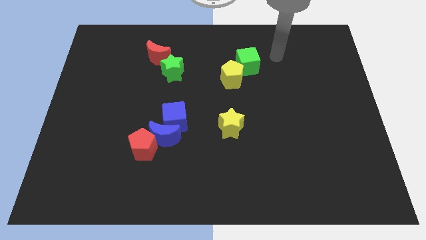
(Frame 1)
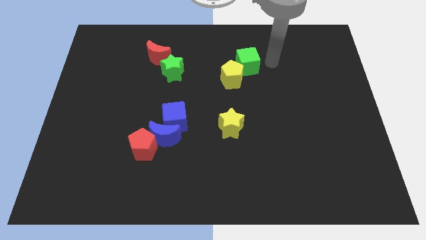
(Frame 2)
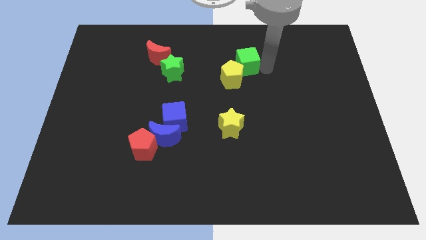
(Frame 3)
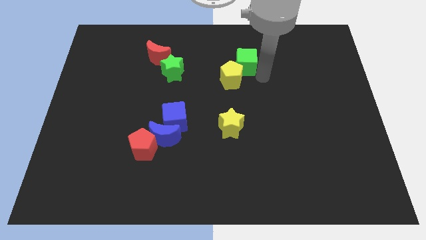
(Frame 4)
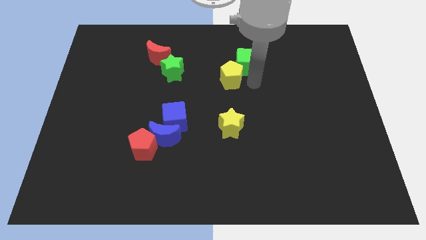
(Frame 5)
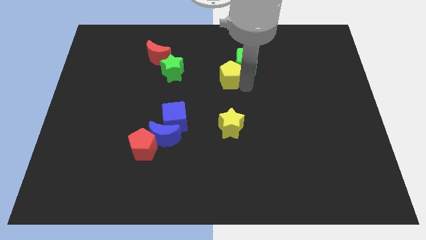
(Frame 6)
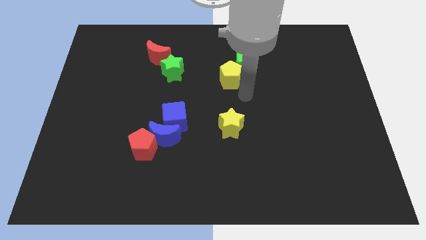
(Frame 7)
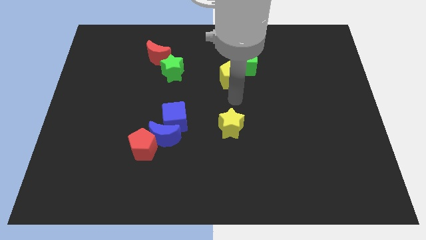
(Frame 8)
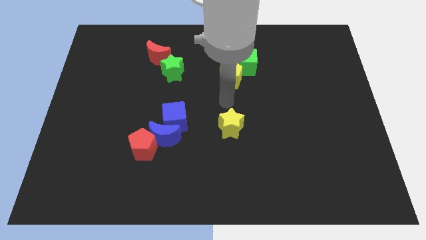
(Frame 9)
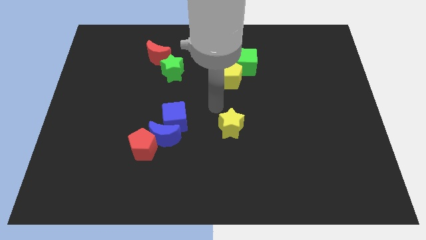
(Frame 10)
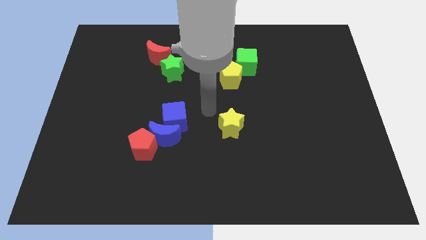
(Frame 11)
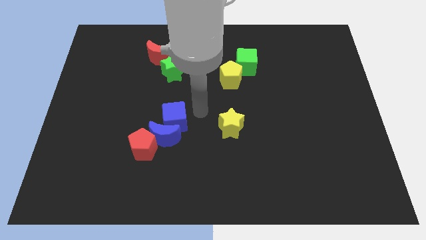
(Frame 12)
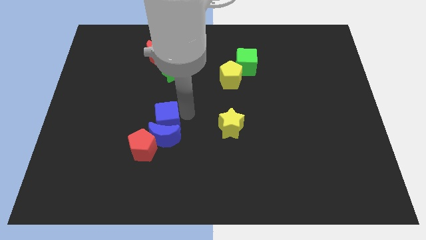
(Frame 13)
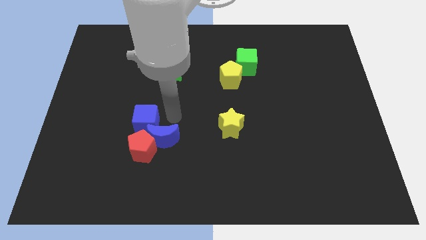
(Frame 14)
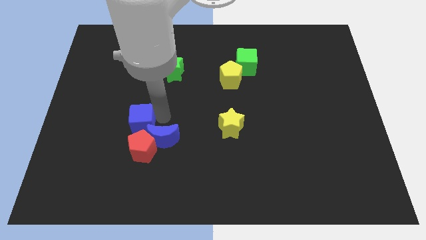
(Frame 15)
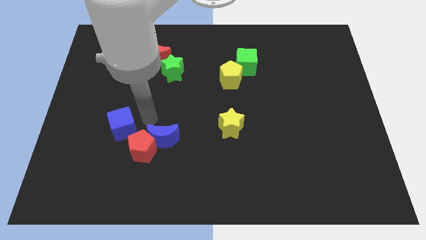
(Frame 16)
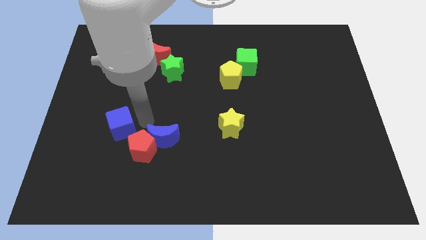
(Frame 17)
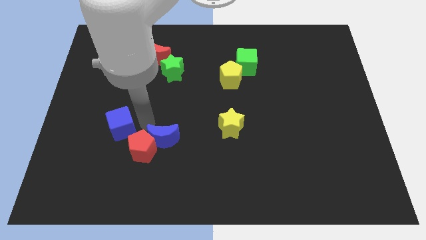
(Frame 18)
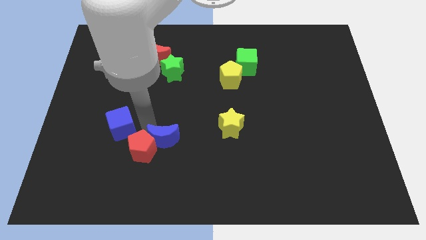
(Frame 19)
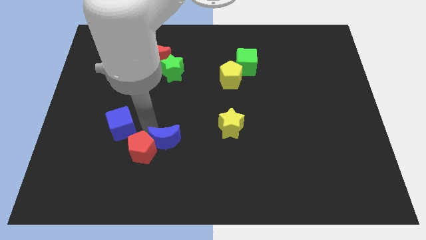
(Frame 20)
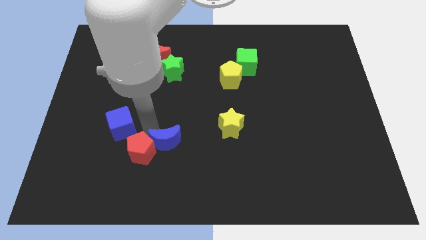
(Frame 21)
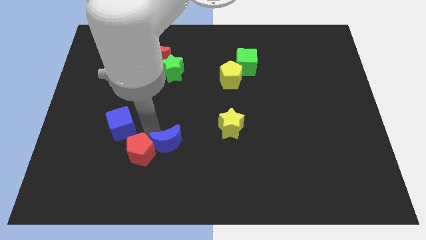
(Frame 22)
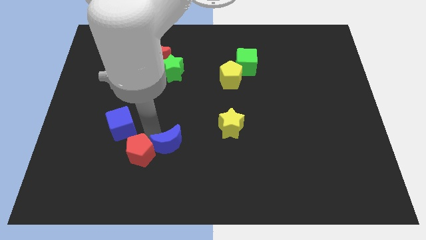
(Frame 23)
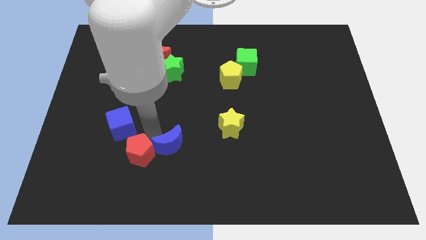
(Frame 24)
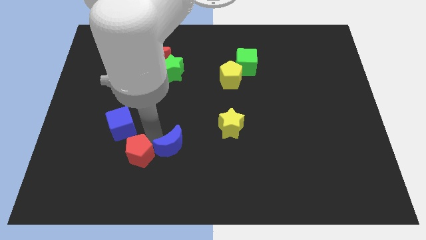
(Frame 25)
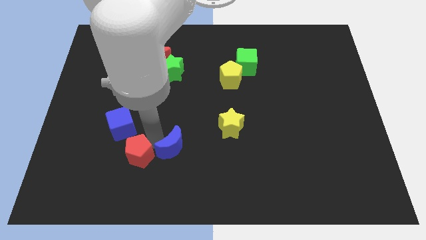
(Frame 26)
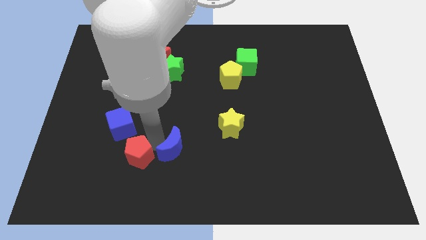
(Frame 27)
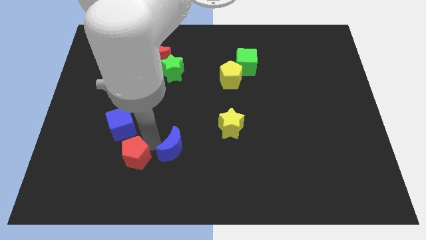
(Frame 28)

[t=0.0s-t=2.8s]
pull the blue moon apart from the red pentagon and blue cube

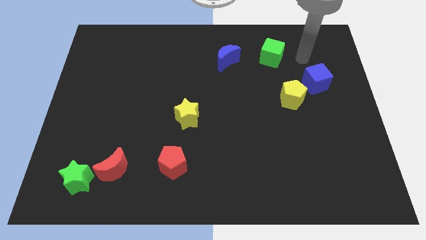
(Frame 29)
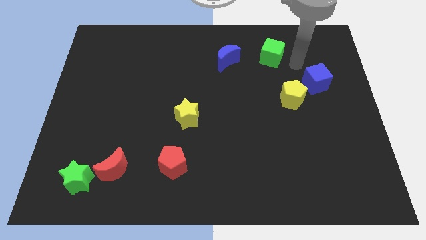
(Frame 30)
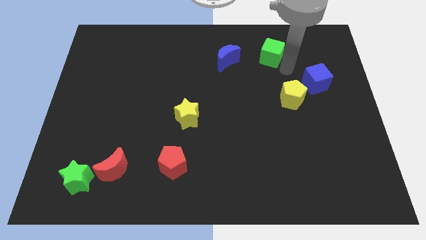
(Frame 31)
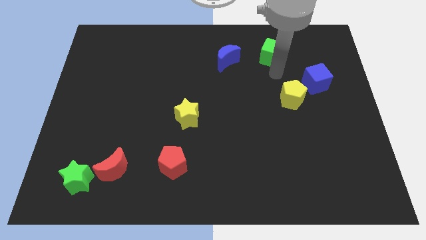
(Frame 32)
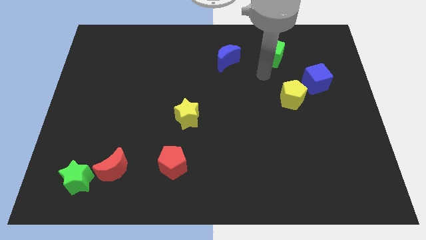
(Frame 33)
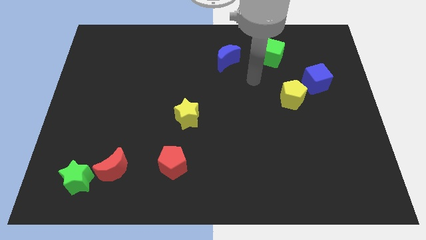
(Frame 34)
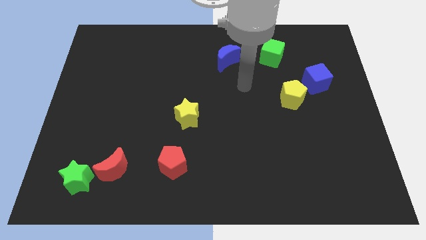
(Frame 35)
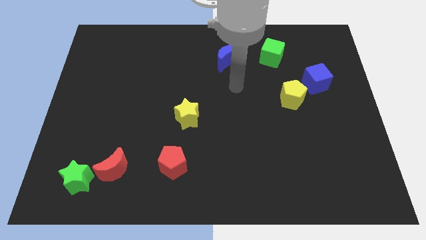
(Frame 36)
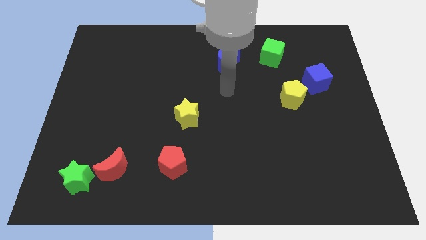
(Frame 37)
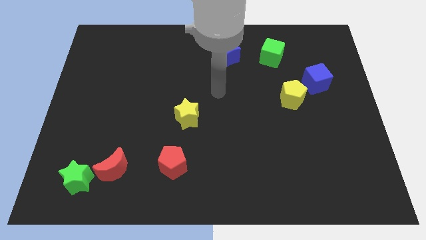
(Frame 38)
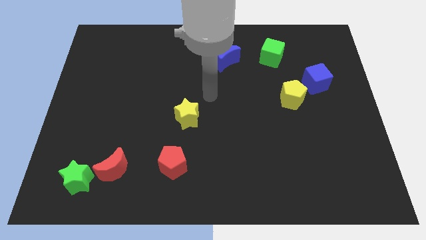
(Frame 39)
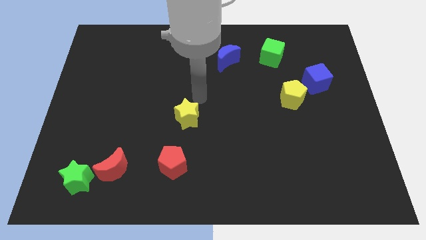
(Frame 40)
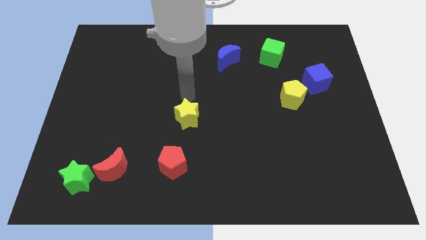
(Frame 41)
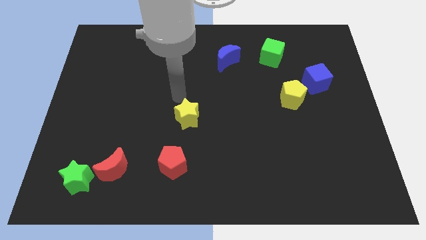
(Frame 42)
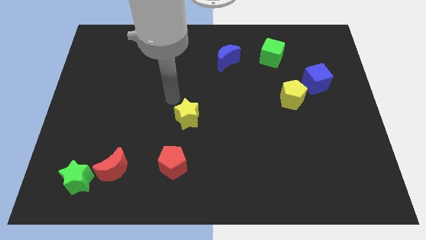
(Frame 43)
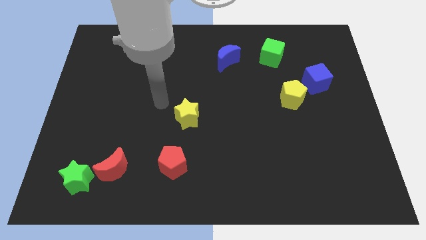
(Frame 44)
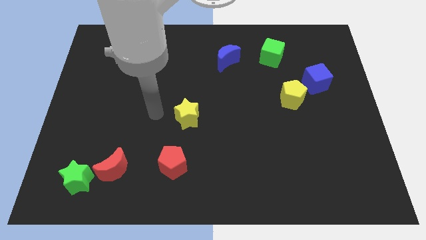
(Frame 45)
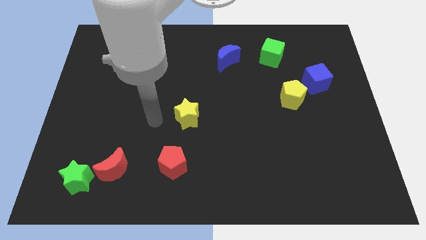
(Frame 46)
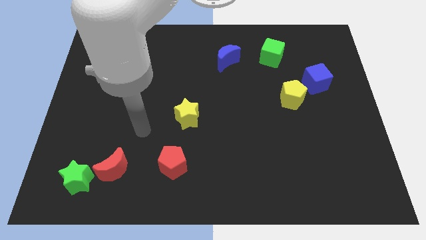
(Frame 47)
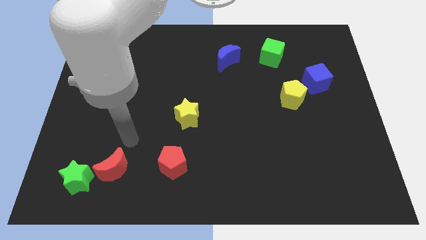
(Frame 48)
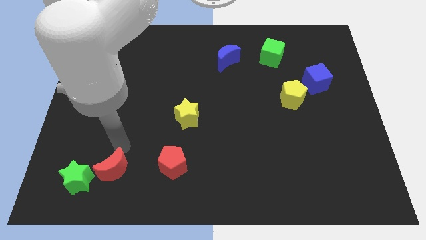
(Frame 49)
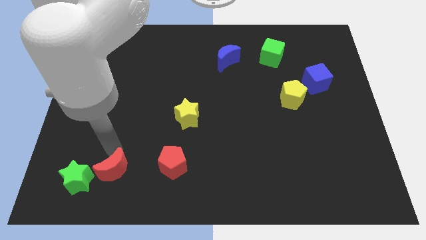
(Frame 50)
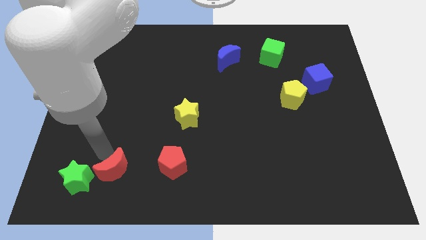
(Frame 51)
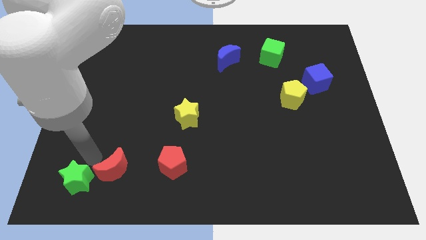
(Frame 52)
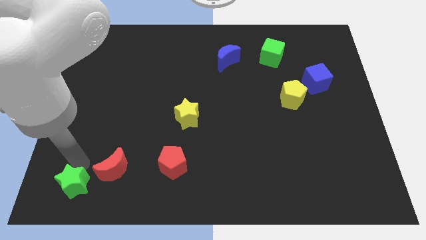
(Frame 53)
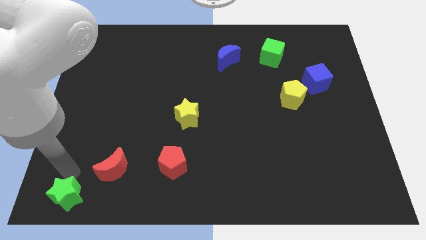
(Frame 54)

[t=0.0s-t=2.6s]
pull the red moon apart from the green star

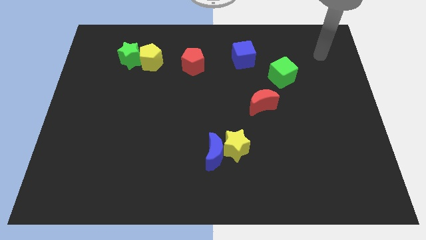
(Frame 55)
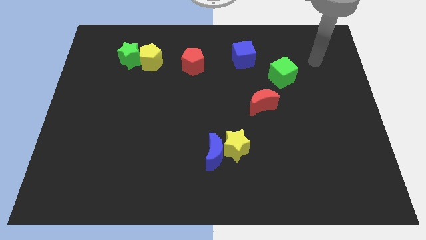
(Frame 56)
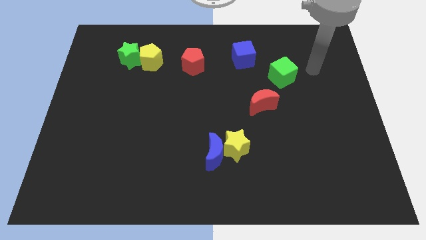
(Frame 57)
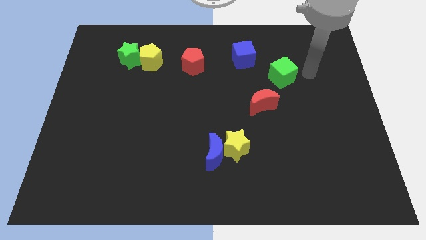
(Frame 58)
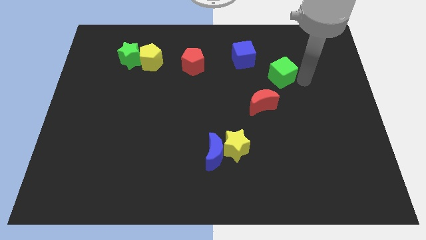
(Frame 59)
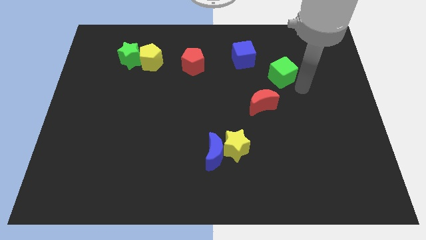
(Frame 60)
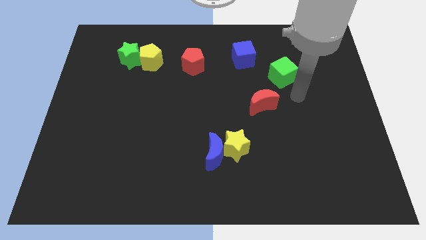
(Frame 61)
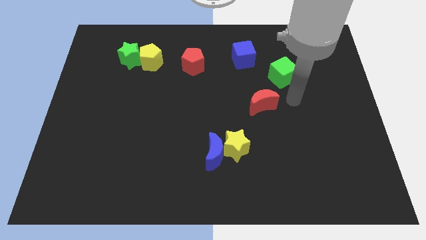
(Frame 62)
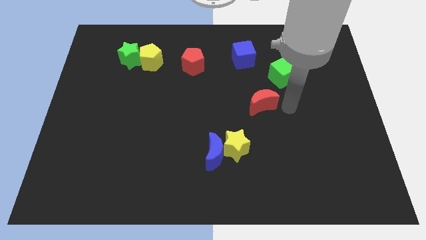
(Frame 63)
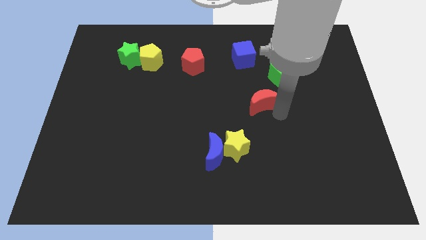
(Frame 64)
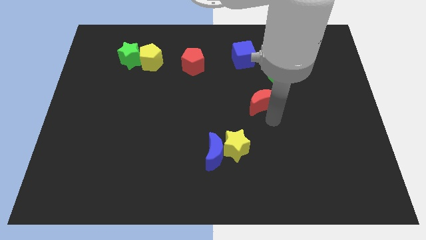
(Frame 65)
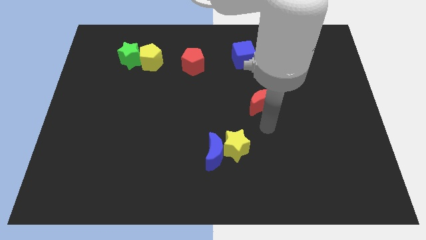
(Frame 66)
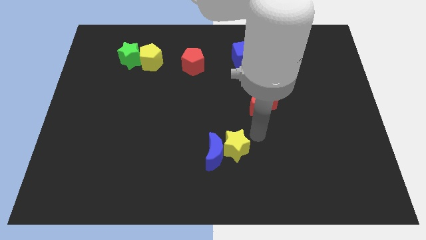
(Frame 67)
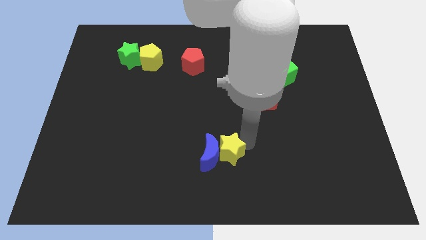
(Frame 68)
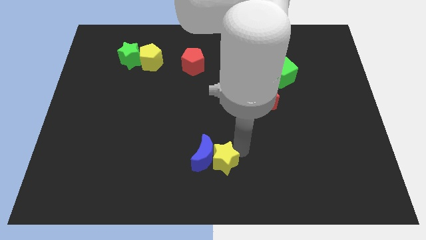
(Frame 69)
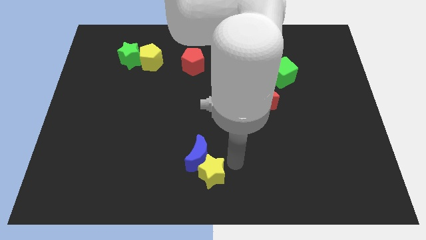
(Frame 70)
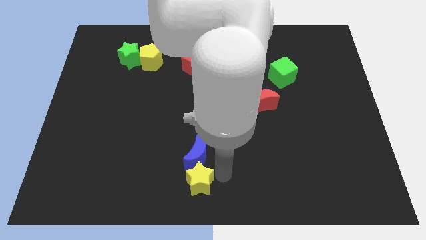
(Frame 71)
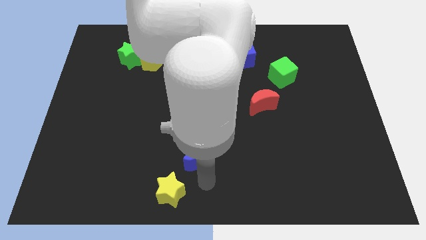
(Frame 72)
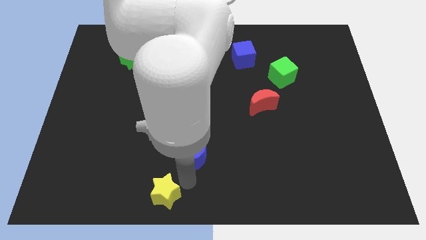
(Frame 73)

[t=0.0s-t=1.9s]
separate the blue moon from the yellow star

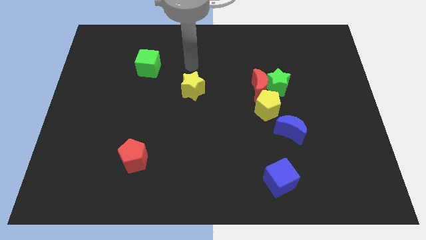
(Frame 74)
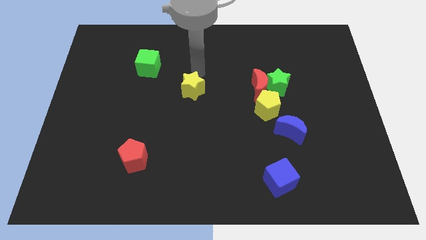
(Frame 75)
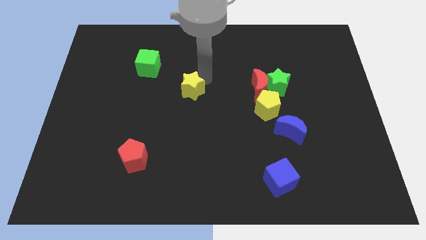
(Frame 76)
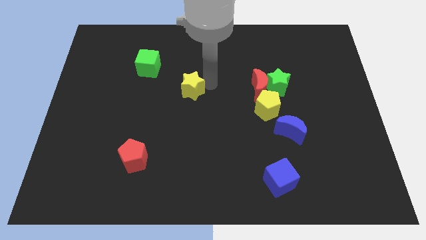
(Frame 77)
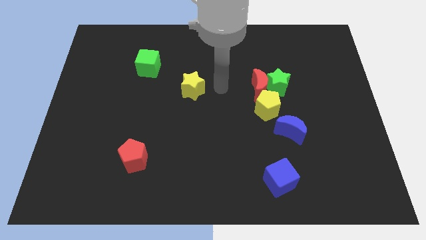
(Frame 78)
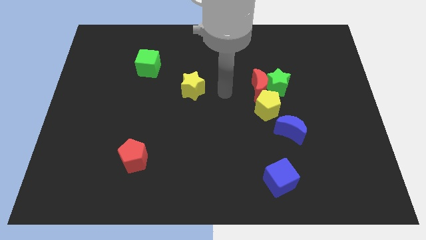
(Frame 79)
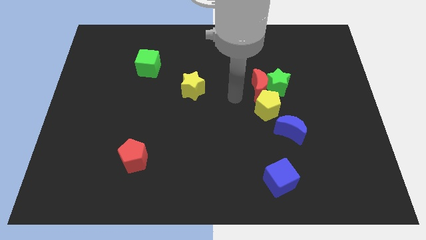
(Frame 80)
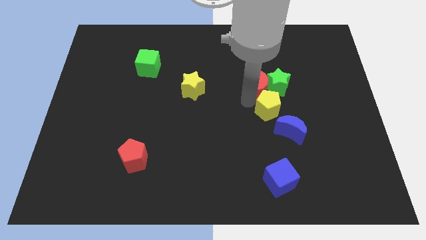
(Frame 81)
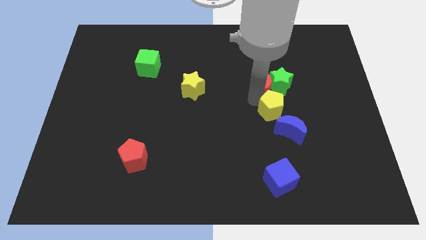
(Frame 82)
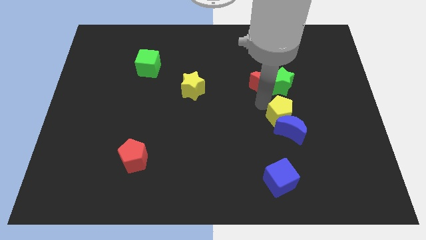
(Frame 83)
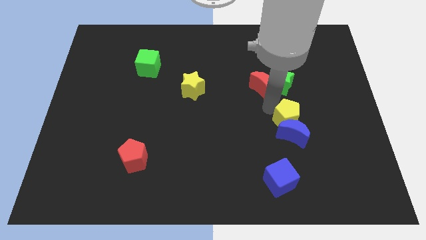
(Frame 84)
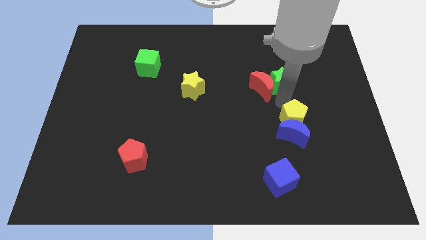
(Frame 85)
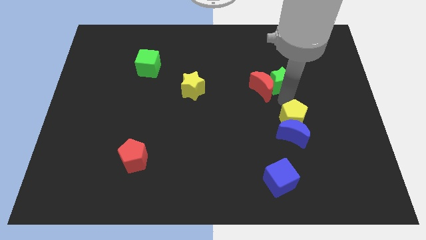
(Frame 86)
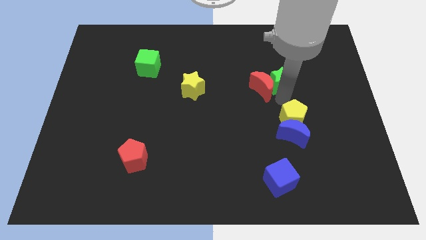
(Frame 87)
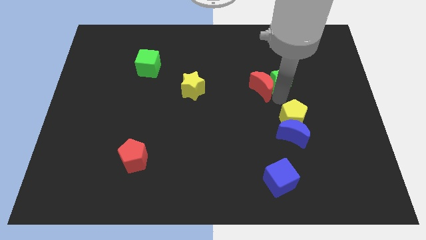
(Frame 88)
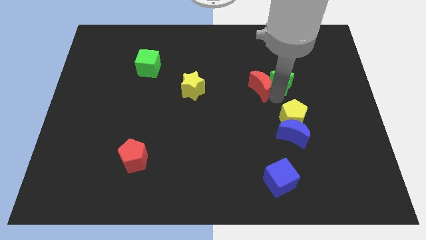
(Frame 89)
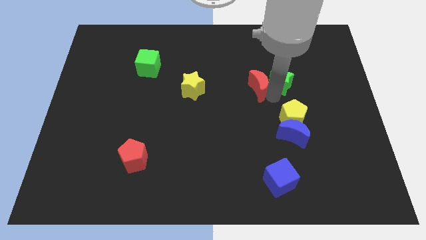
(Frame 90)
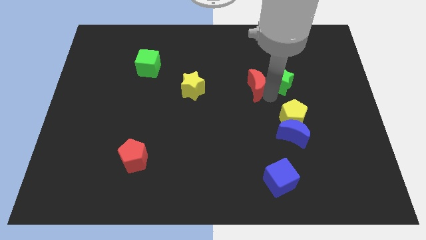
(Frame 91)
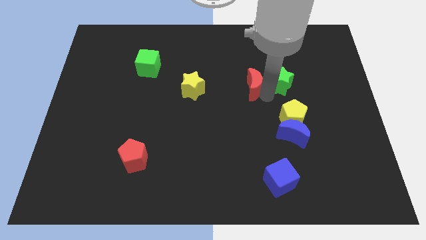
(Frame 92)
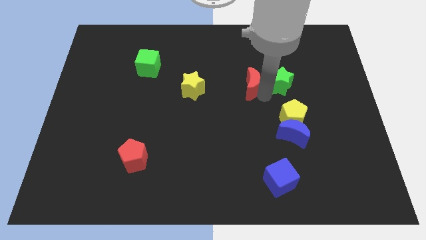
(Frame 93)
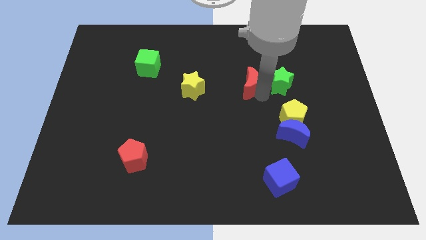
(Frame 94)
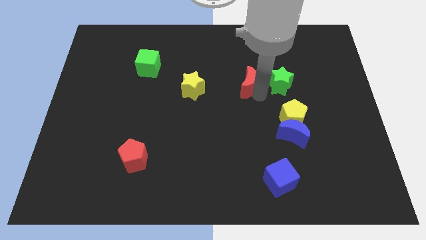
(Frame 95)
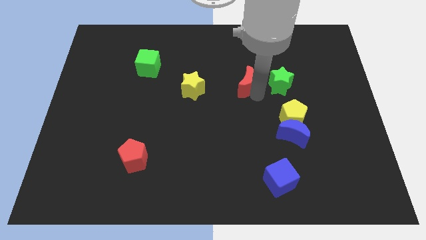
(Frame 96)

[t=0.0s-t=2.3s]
separate the red moon from the green star and yellow pentagon
